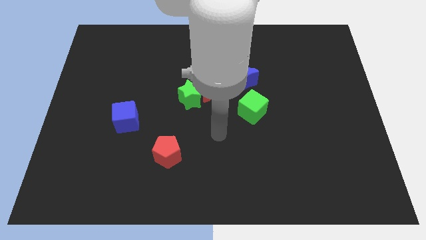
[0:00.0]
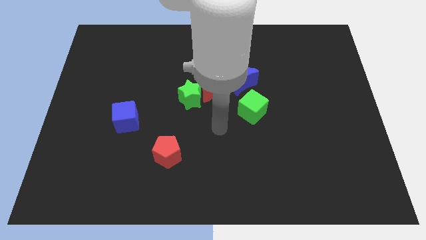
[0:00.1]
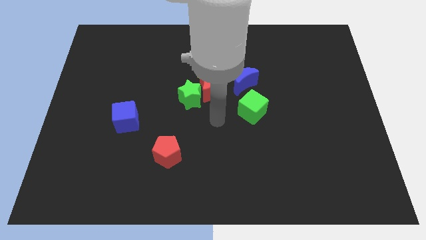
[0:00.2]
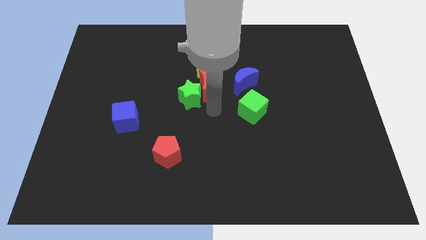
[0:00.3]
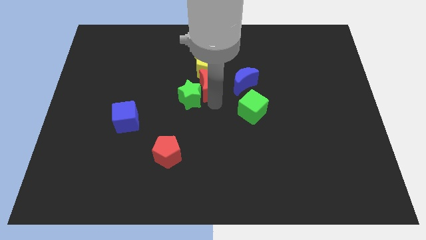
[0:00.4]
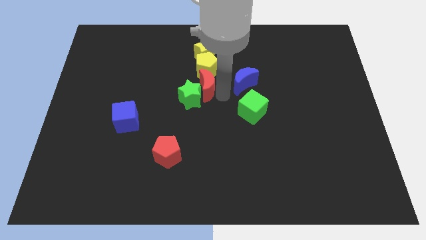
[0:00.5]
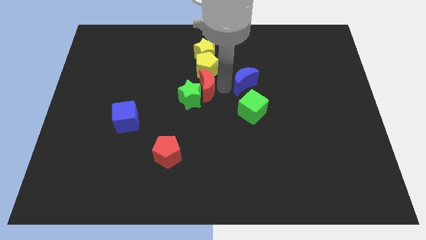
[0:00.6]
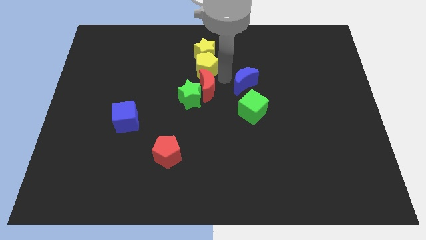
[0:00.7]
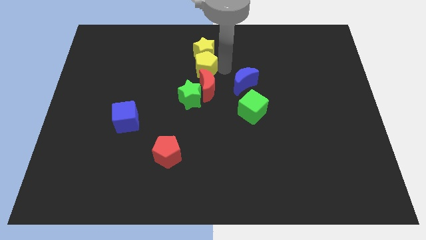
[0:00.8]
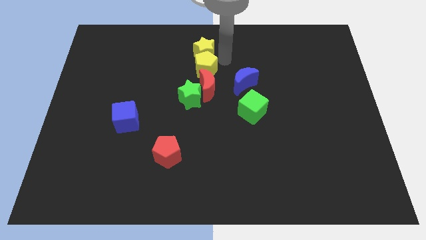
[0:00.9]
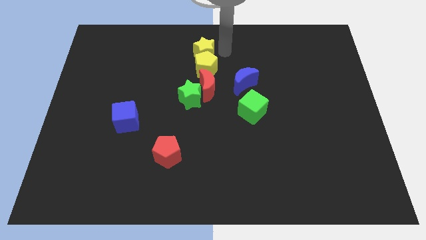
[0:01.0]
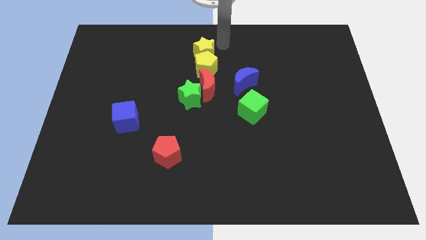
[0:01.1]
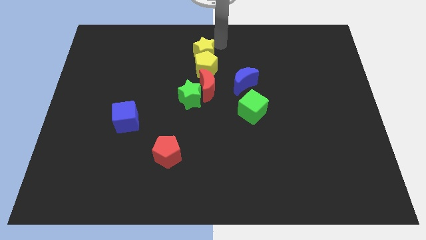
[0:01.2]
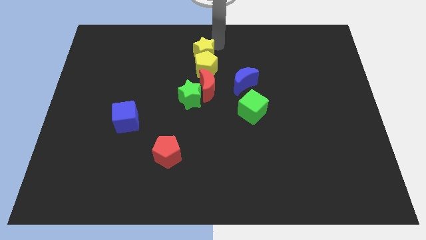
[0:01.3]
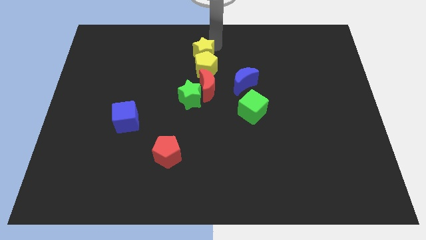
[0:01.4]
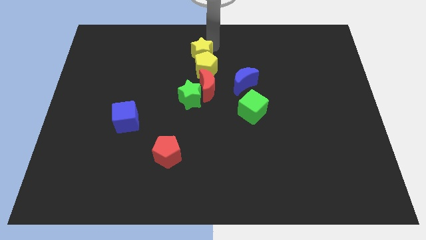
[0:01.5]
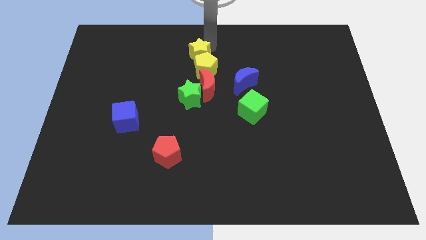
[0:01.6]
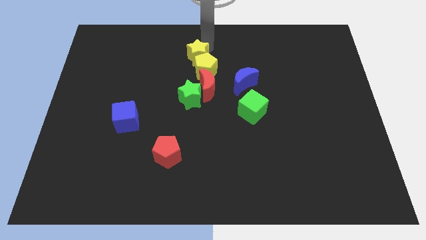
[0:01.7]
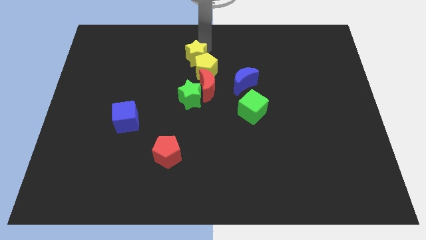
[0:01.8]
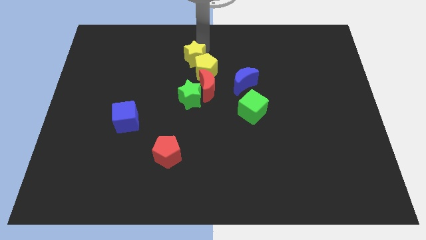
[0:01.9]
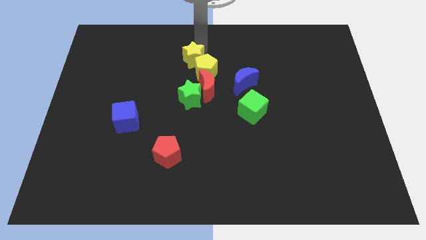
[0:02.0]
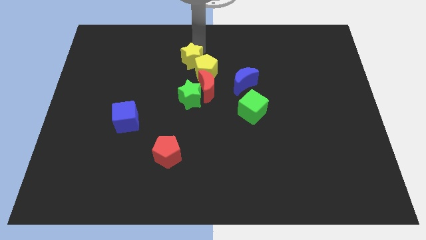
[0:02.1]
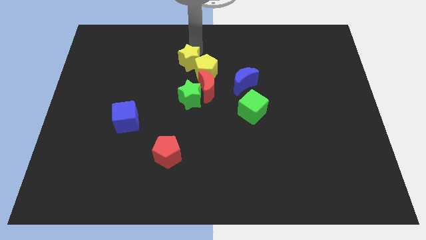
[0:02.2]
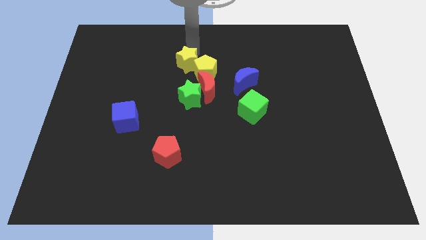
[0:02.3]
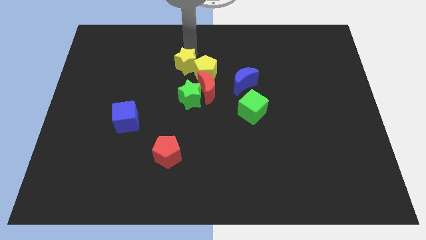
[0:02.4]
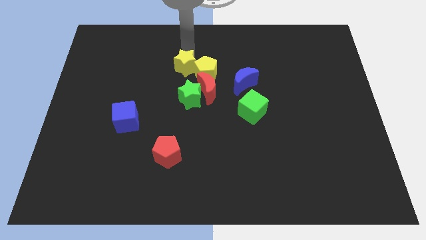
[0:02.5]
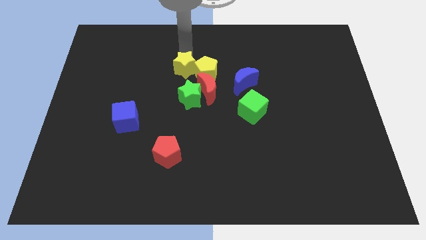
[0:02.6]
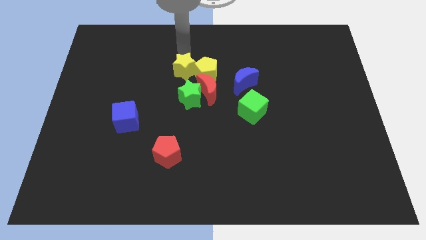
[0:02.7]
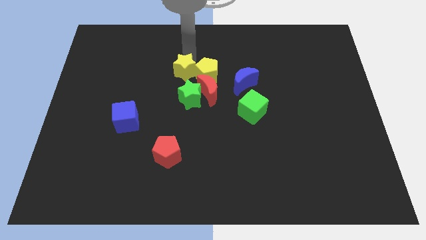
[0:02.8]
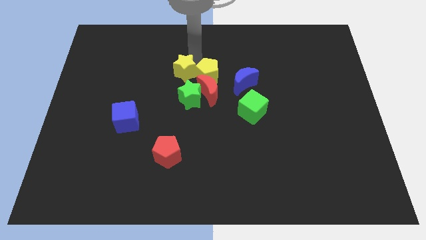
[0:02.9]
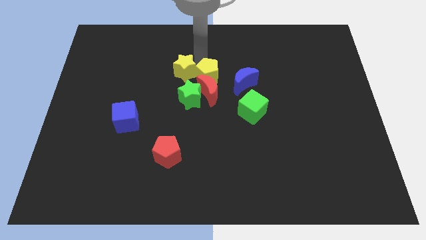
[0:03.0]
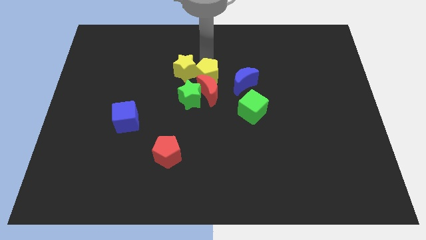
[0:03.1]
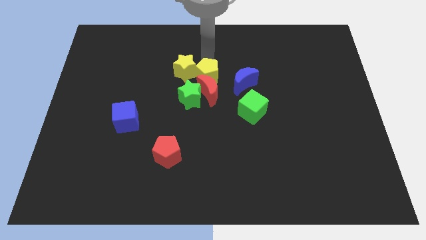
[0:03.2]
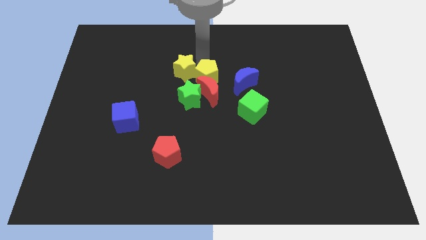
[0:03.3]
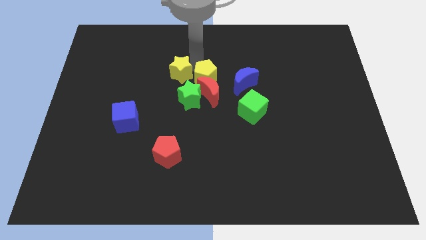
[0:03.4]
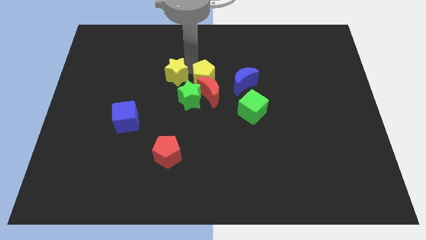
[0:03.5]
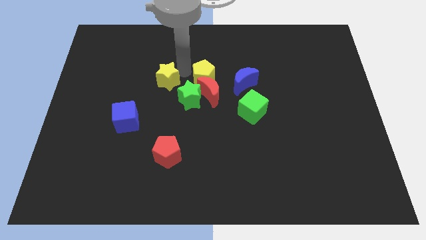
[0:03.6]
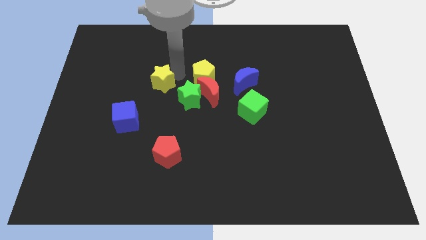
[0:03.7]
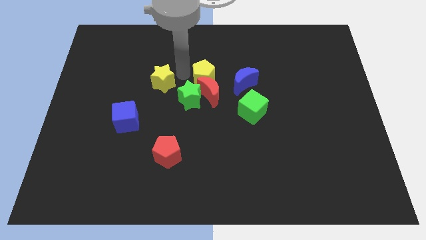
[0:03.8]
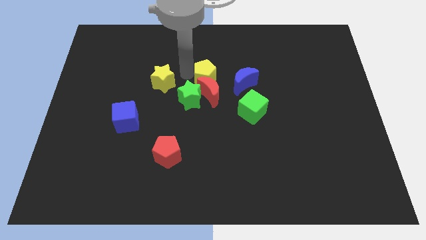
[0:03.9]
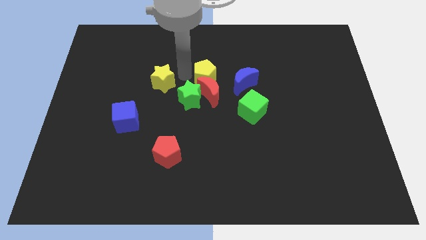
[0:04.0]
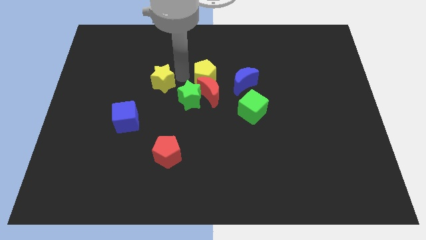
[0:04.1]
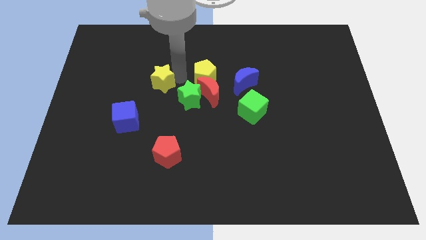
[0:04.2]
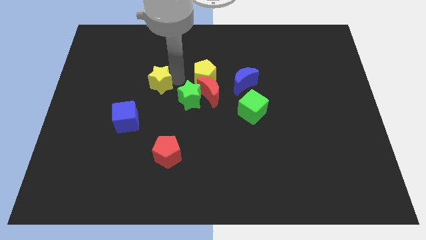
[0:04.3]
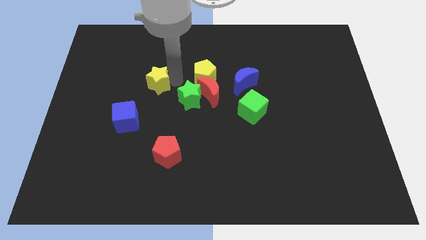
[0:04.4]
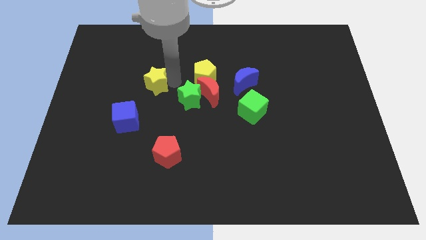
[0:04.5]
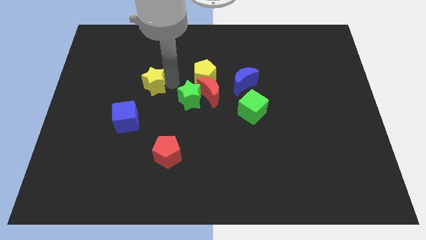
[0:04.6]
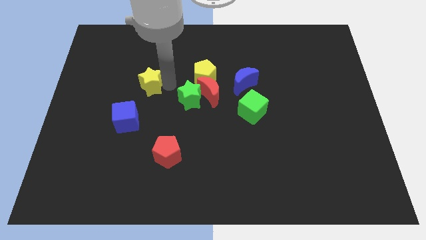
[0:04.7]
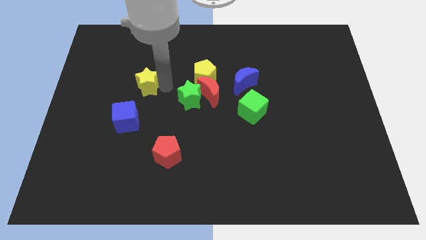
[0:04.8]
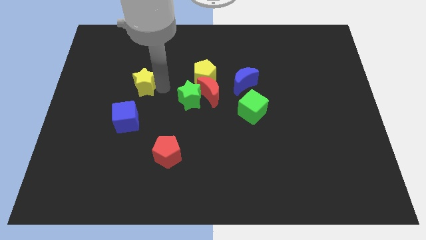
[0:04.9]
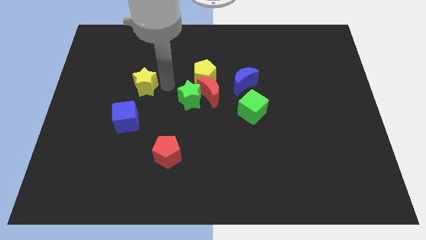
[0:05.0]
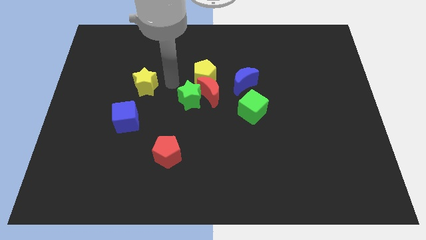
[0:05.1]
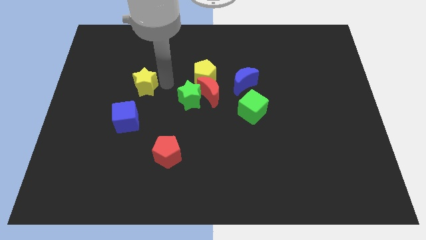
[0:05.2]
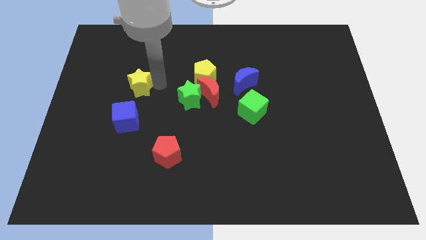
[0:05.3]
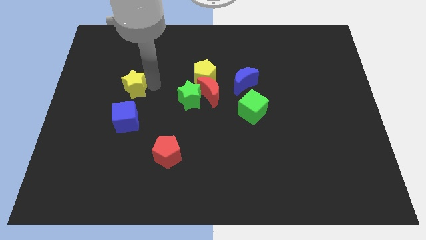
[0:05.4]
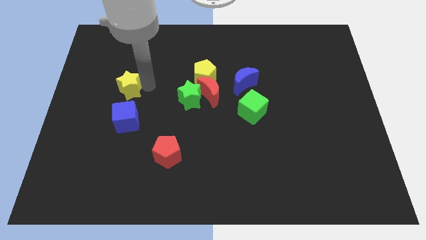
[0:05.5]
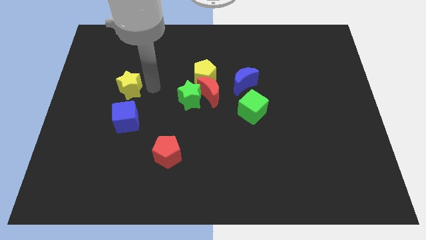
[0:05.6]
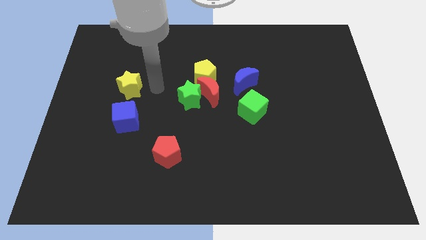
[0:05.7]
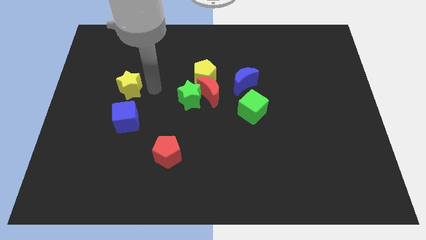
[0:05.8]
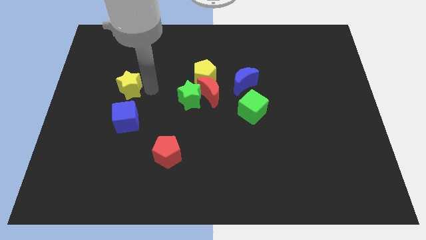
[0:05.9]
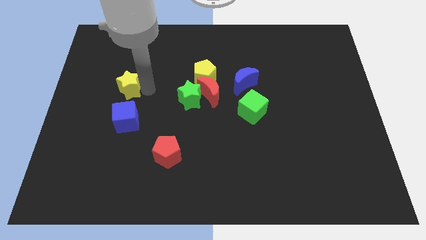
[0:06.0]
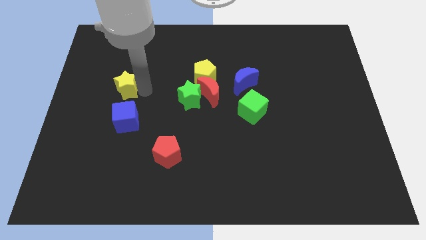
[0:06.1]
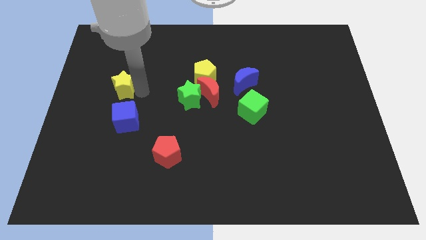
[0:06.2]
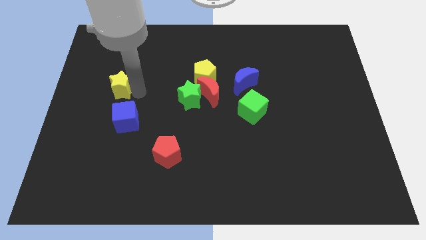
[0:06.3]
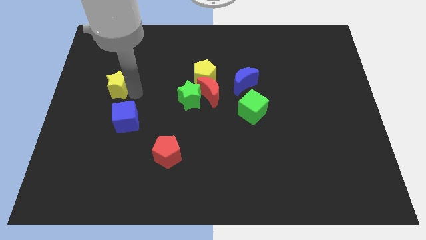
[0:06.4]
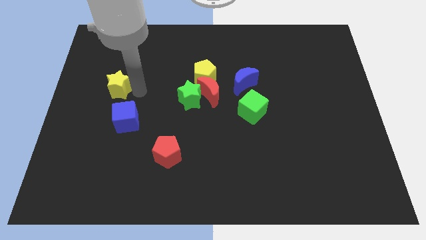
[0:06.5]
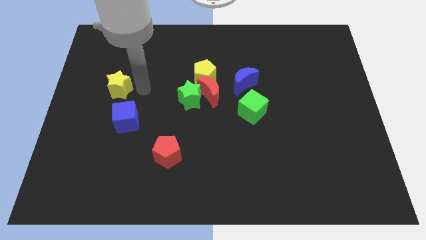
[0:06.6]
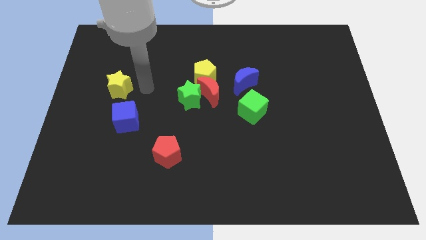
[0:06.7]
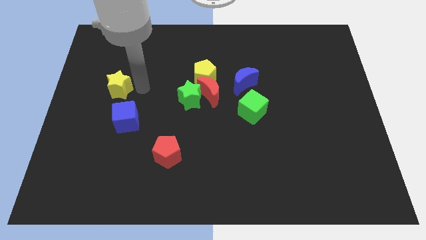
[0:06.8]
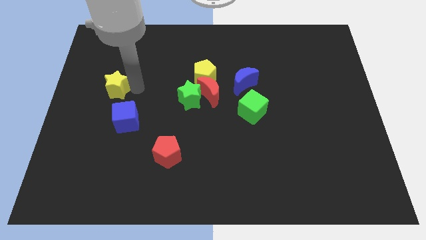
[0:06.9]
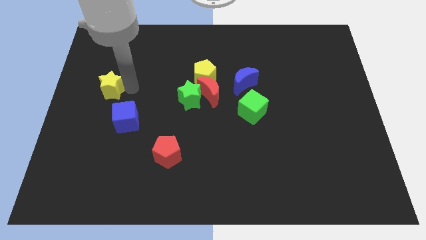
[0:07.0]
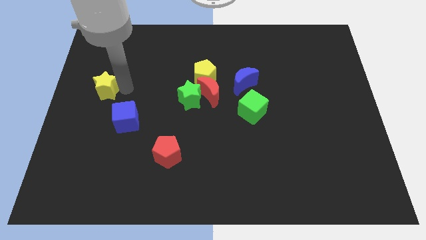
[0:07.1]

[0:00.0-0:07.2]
put the yellow star to the left side
